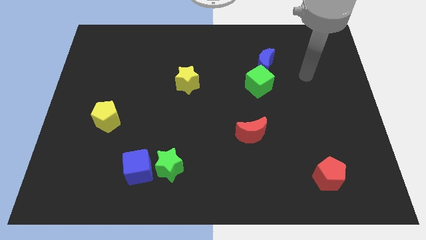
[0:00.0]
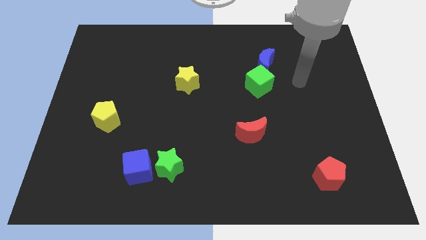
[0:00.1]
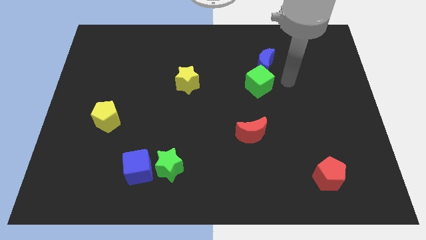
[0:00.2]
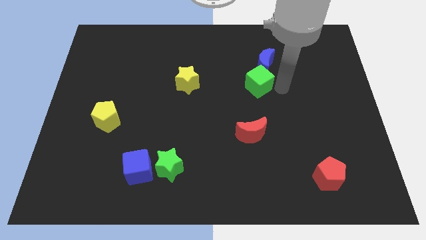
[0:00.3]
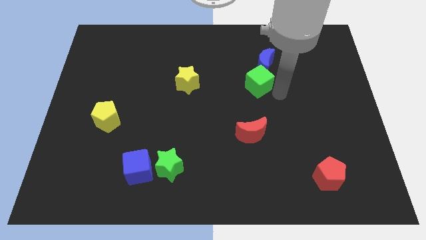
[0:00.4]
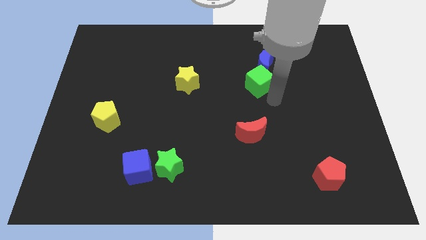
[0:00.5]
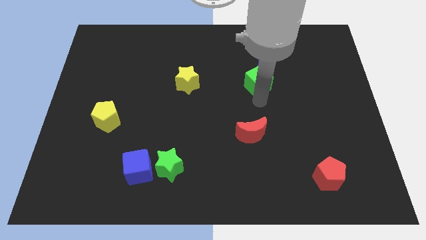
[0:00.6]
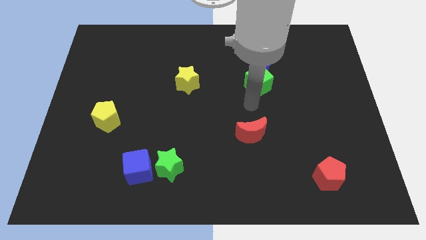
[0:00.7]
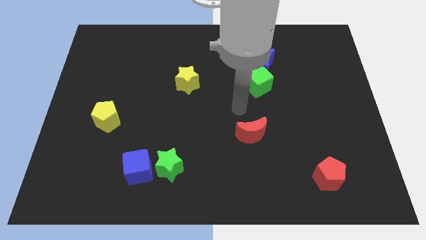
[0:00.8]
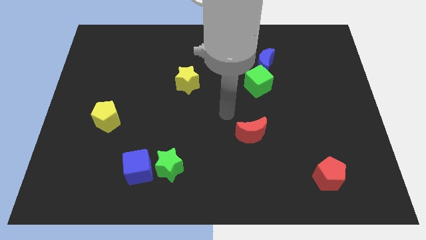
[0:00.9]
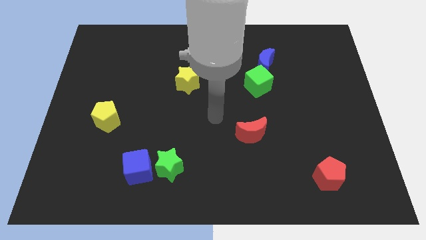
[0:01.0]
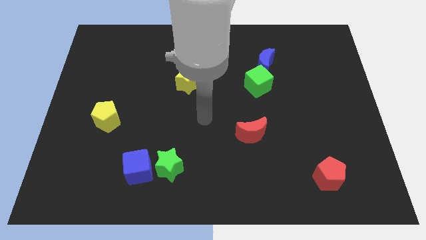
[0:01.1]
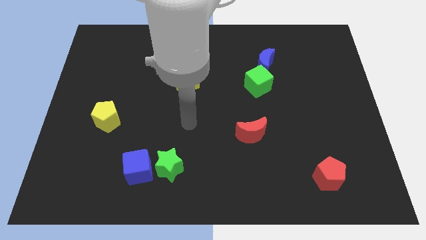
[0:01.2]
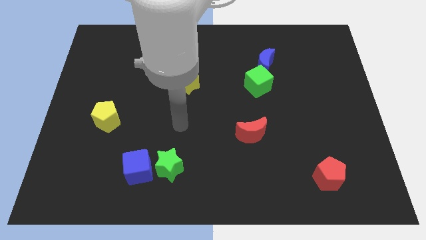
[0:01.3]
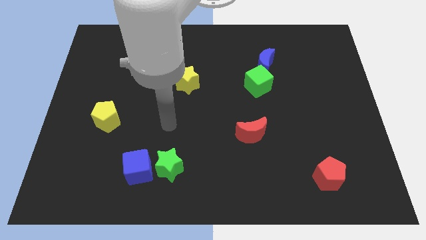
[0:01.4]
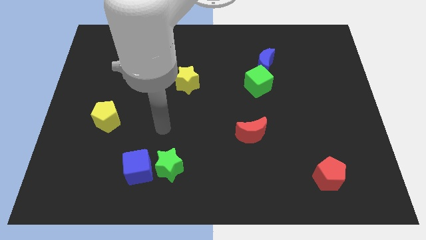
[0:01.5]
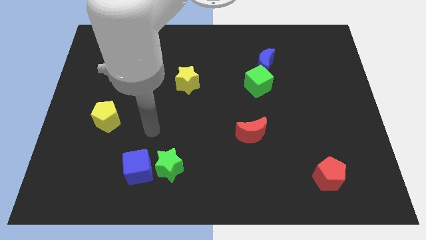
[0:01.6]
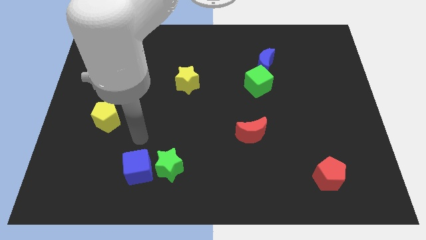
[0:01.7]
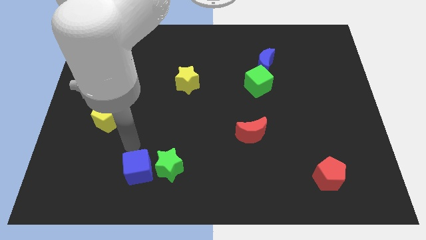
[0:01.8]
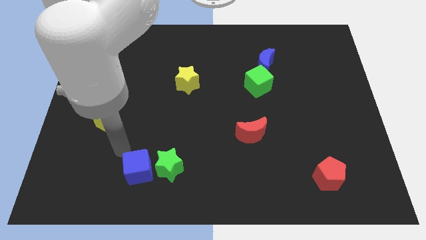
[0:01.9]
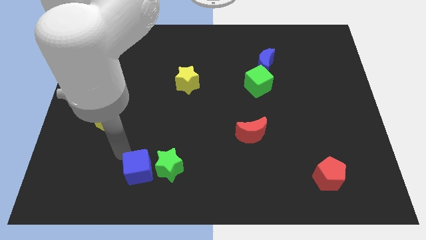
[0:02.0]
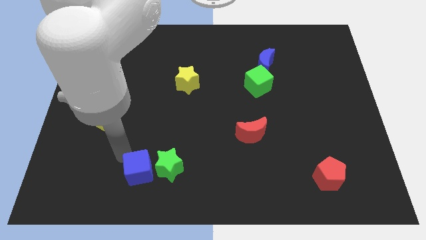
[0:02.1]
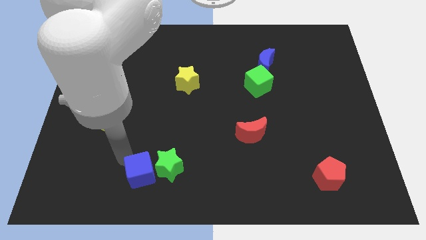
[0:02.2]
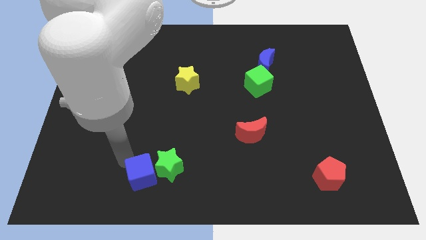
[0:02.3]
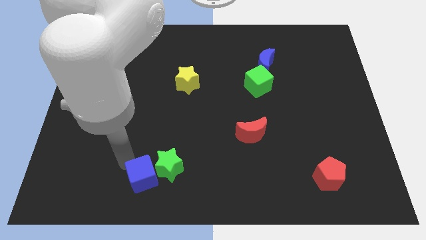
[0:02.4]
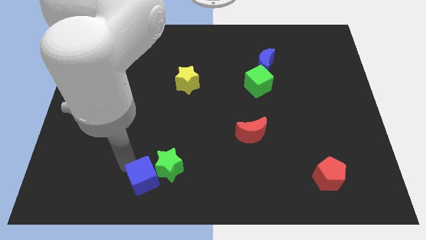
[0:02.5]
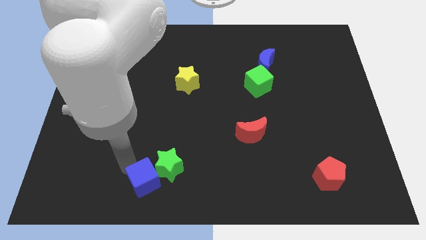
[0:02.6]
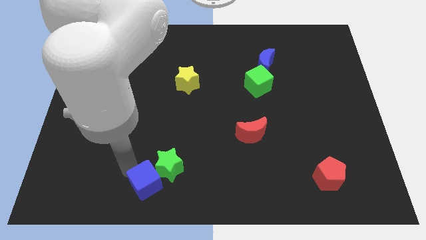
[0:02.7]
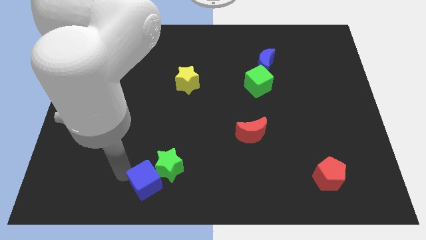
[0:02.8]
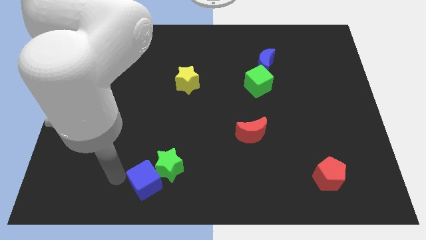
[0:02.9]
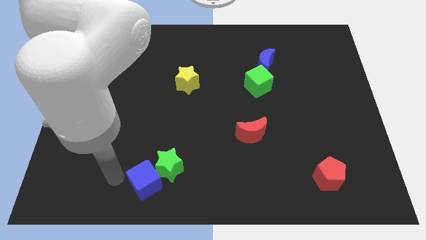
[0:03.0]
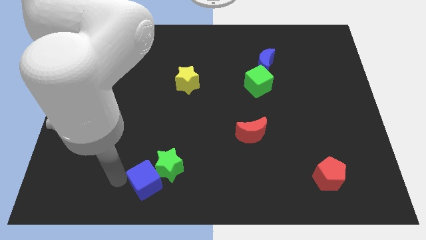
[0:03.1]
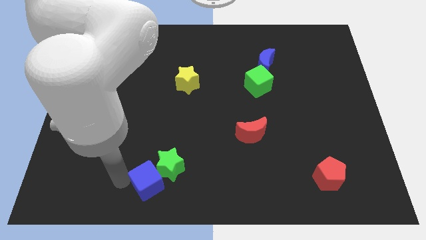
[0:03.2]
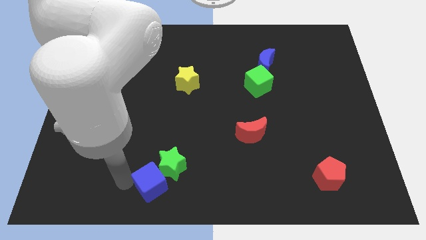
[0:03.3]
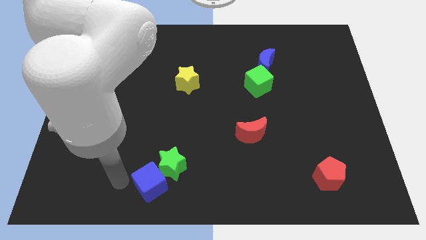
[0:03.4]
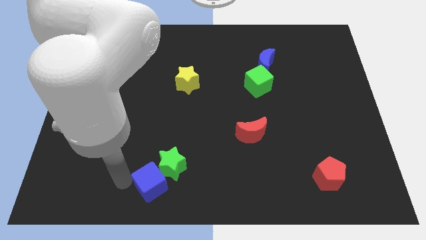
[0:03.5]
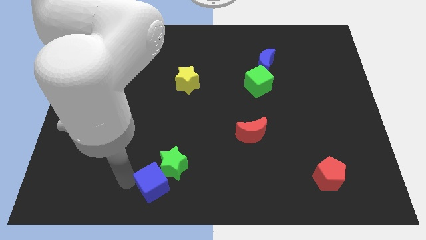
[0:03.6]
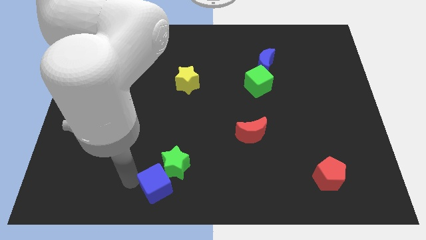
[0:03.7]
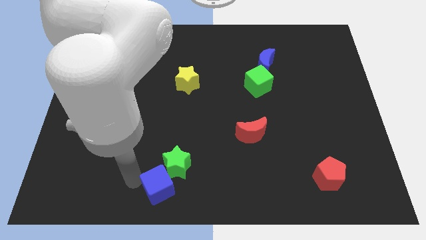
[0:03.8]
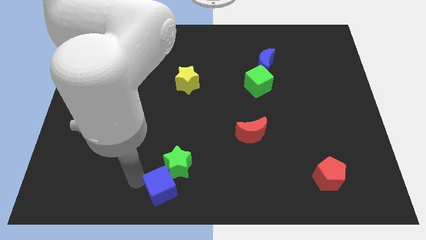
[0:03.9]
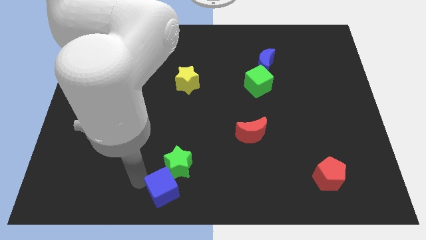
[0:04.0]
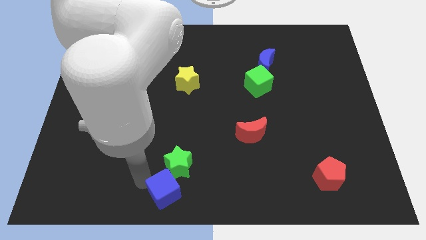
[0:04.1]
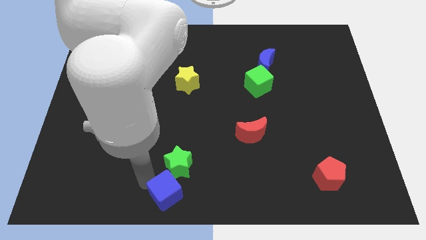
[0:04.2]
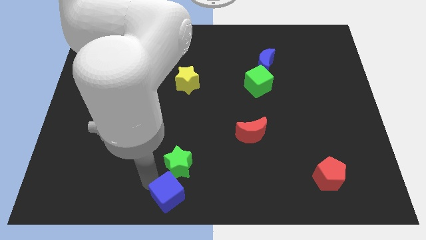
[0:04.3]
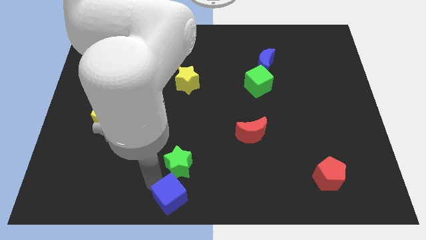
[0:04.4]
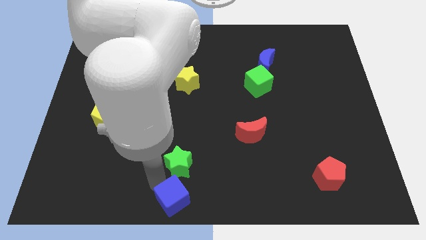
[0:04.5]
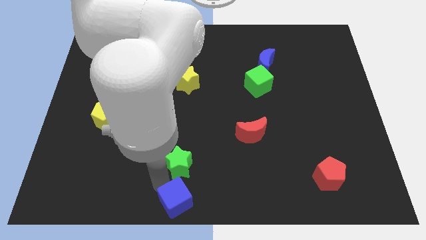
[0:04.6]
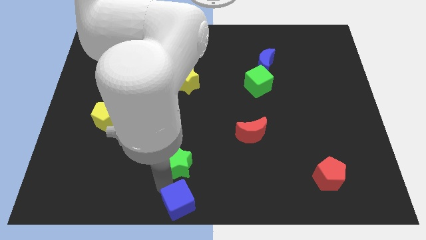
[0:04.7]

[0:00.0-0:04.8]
move the blue cube somewhat right

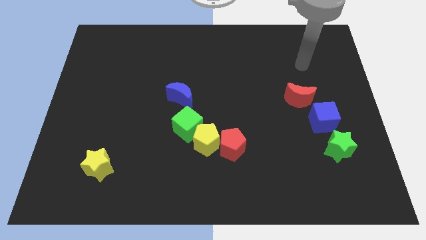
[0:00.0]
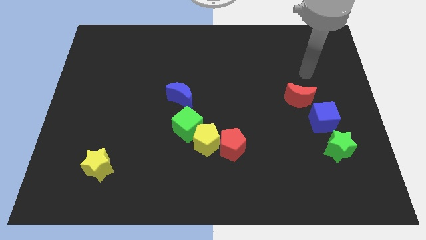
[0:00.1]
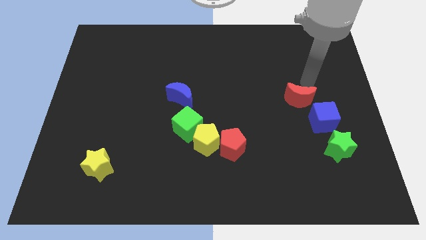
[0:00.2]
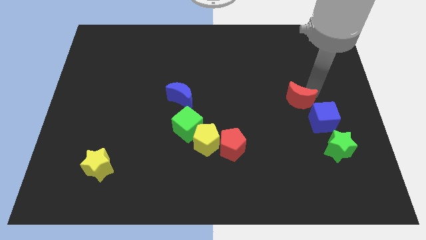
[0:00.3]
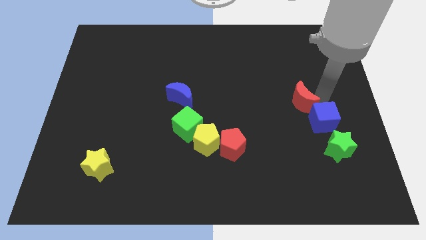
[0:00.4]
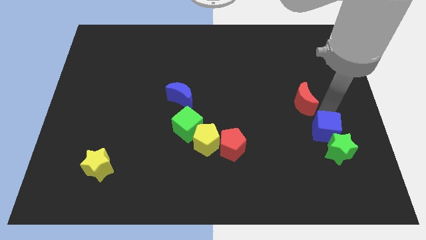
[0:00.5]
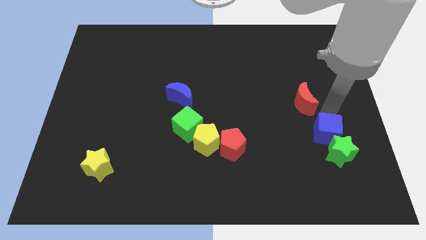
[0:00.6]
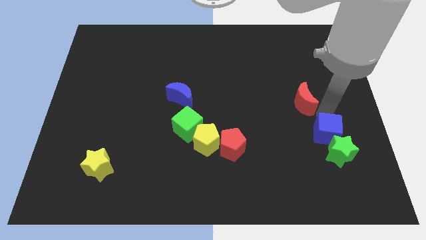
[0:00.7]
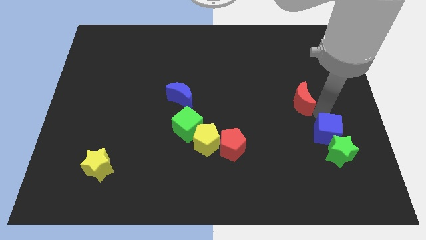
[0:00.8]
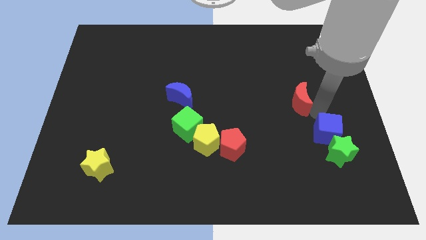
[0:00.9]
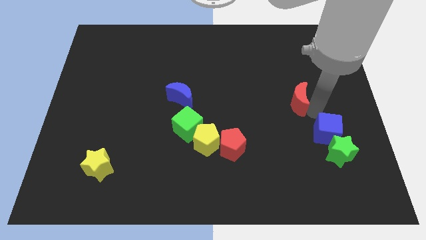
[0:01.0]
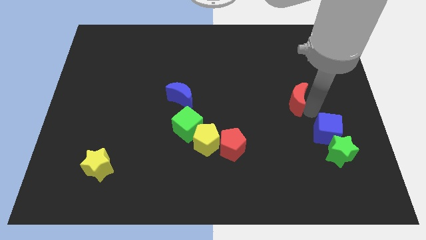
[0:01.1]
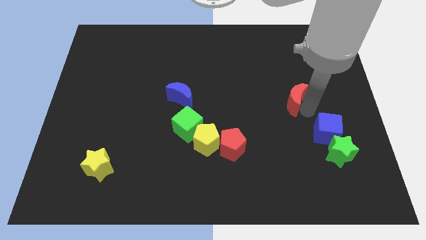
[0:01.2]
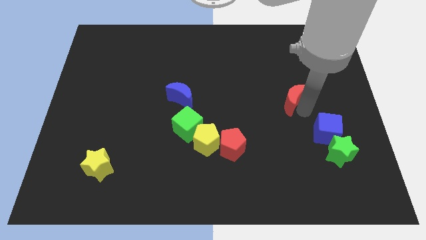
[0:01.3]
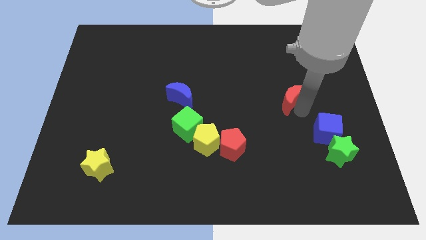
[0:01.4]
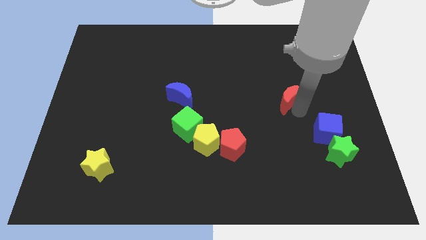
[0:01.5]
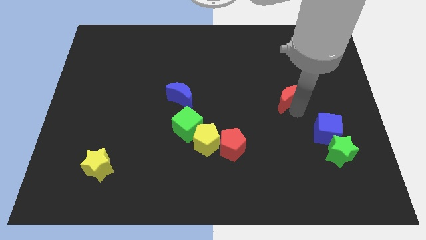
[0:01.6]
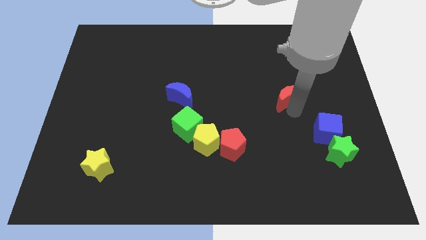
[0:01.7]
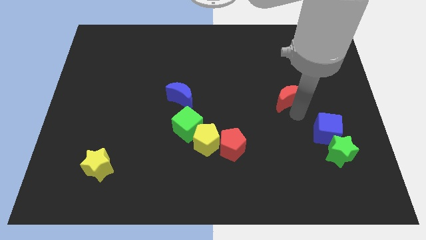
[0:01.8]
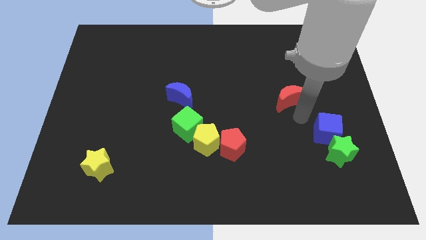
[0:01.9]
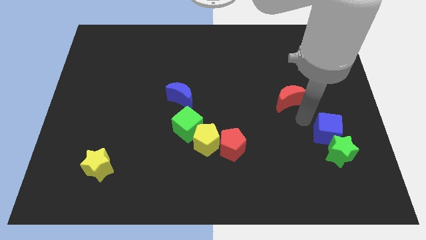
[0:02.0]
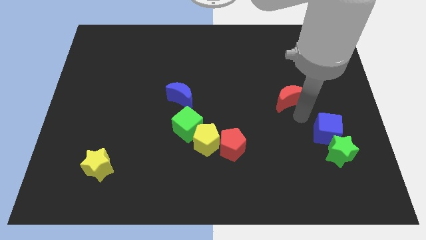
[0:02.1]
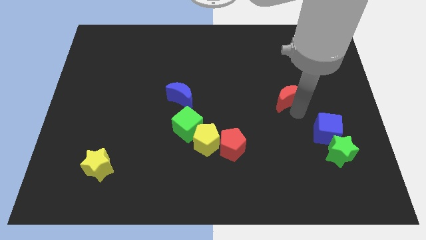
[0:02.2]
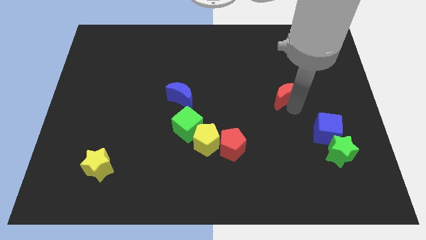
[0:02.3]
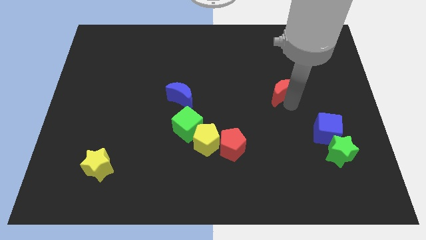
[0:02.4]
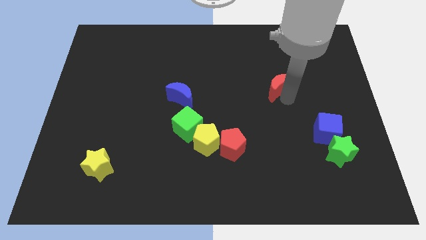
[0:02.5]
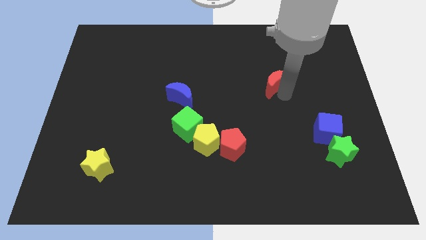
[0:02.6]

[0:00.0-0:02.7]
push the red moon slightly upwards and left

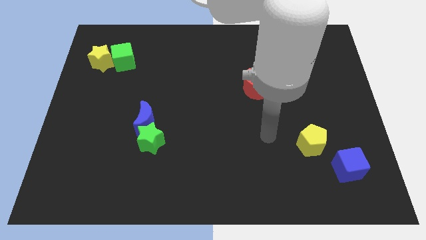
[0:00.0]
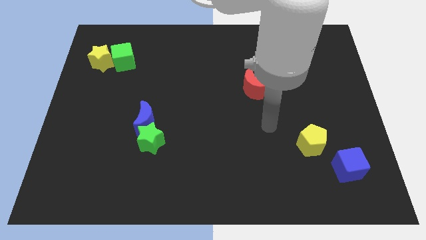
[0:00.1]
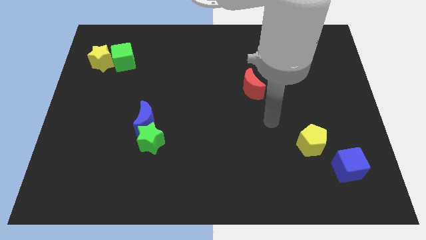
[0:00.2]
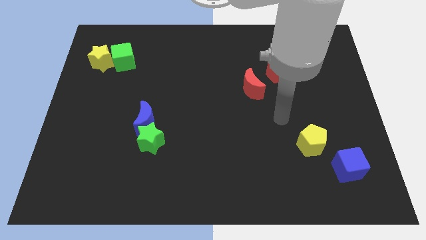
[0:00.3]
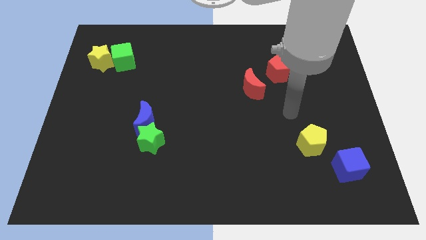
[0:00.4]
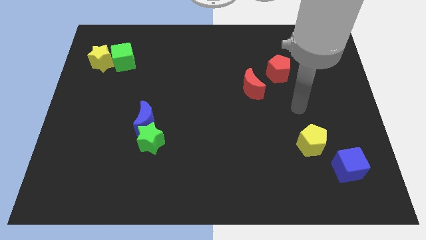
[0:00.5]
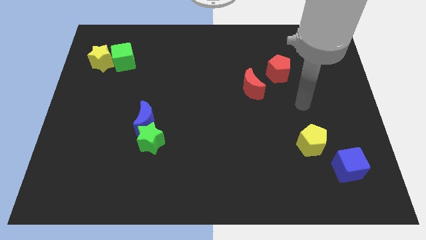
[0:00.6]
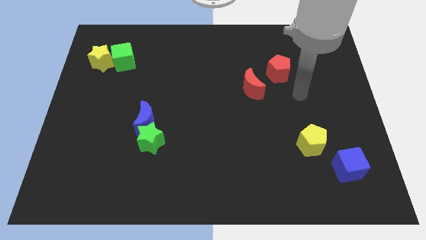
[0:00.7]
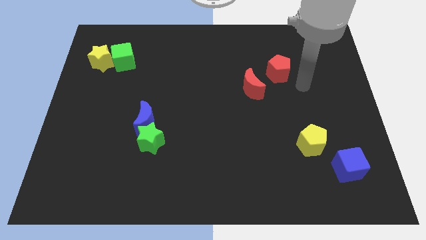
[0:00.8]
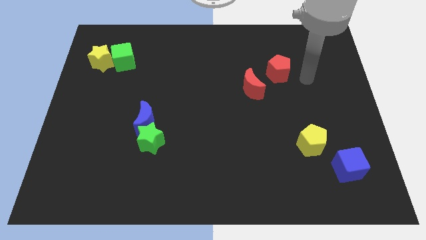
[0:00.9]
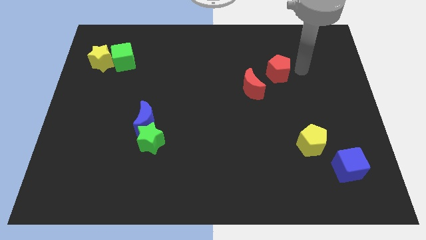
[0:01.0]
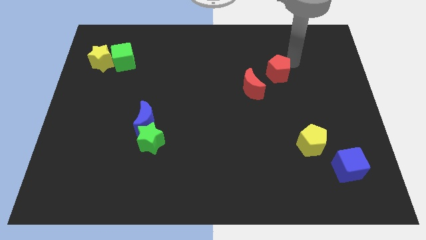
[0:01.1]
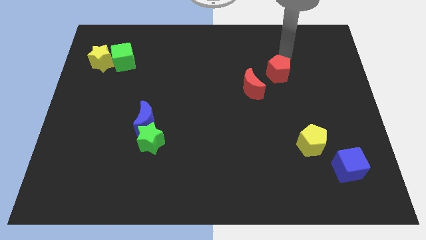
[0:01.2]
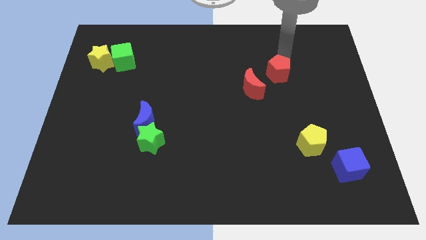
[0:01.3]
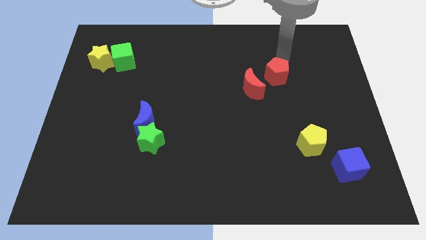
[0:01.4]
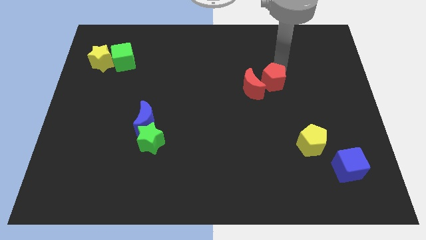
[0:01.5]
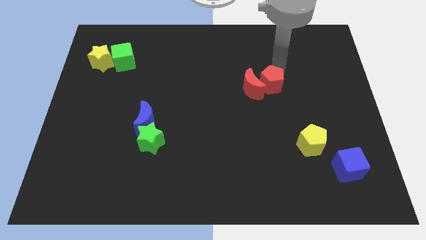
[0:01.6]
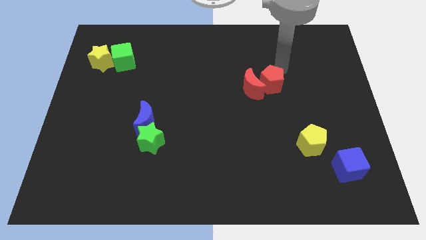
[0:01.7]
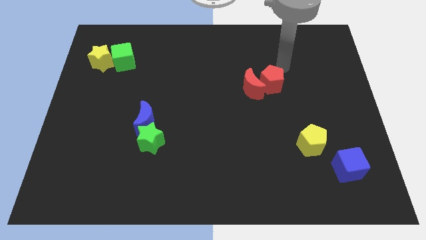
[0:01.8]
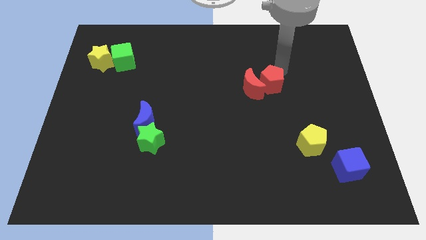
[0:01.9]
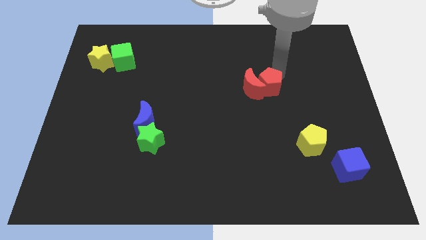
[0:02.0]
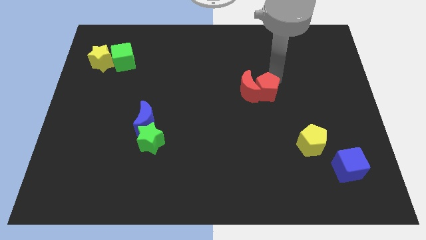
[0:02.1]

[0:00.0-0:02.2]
slide the red pentagon a little down and to the left diagonally
